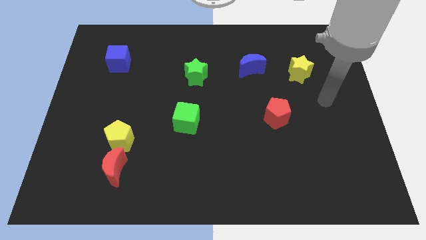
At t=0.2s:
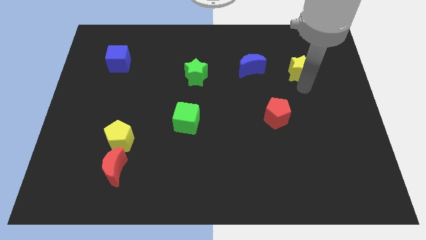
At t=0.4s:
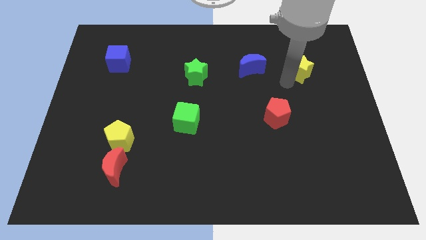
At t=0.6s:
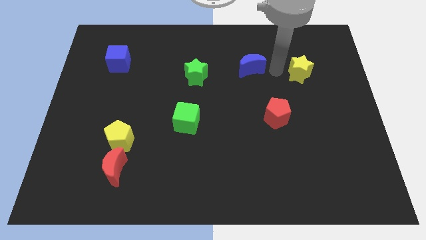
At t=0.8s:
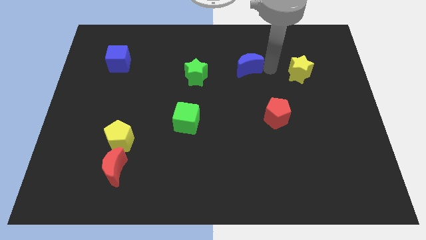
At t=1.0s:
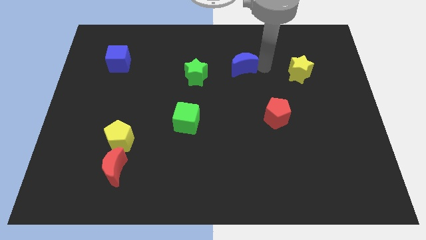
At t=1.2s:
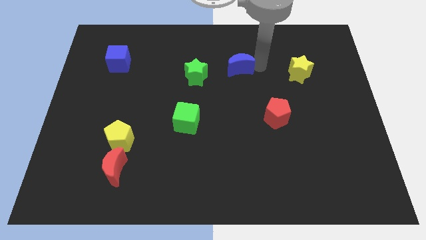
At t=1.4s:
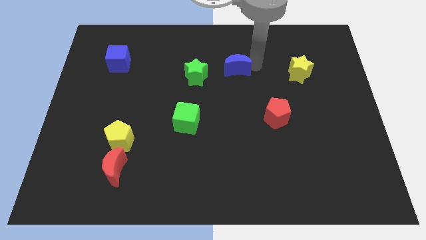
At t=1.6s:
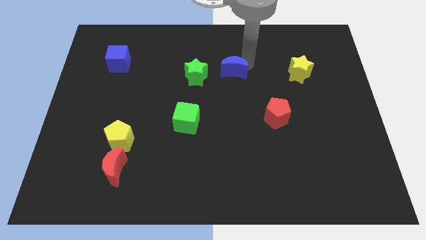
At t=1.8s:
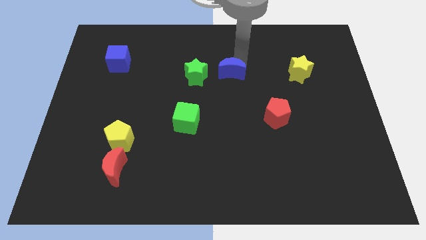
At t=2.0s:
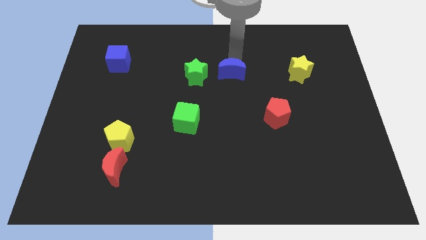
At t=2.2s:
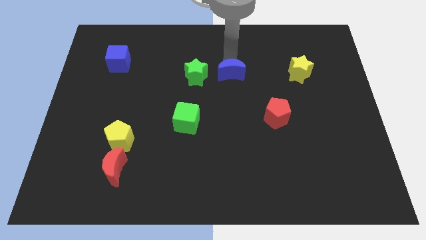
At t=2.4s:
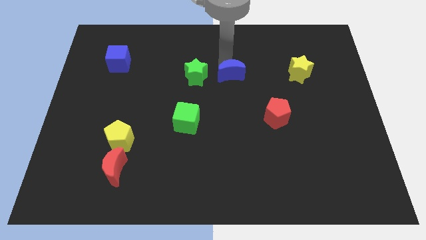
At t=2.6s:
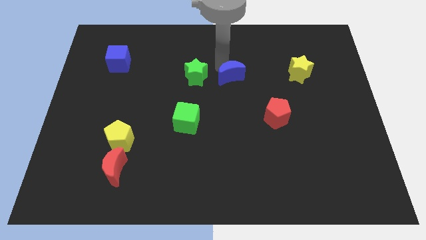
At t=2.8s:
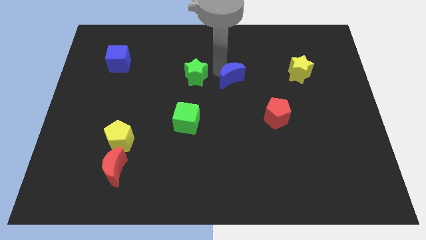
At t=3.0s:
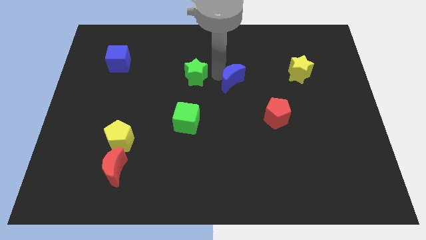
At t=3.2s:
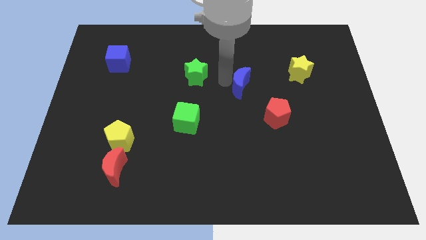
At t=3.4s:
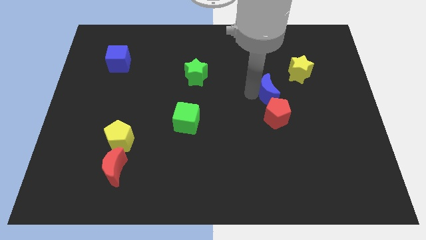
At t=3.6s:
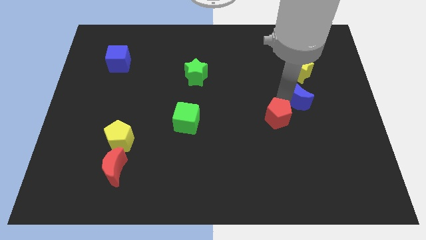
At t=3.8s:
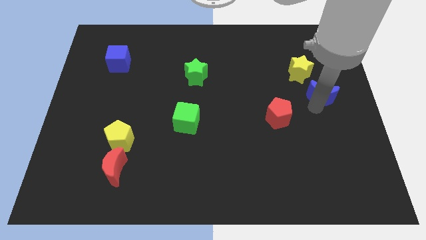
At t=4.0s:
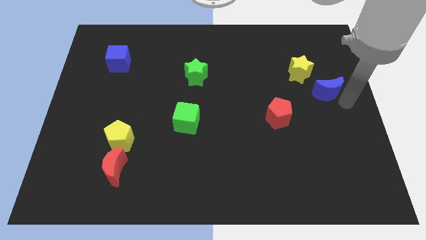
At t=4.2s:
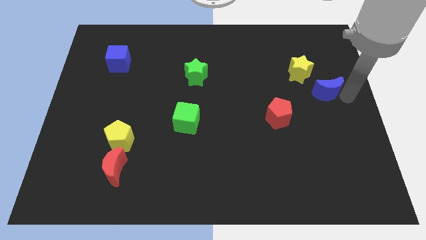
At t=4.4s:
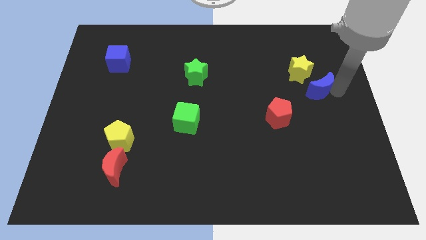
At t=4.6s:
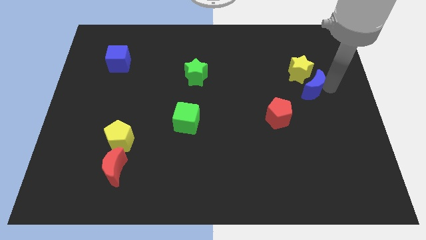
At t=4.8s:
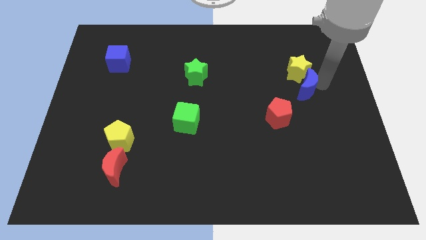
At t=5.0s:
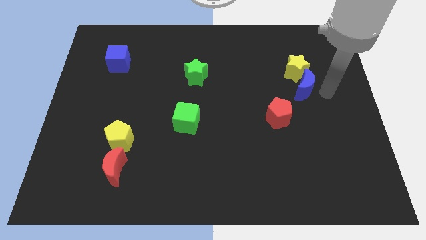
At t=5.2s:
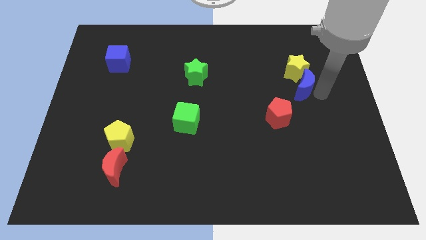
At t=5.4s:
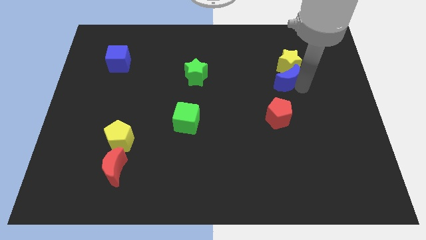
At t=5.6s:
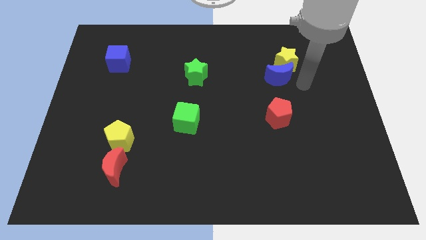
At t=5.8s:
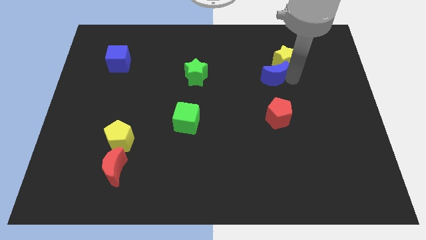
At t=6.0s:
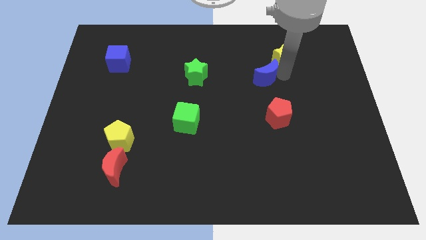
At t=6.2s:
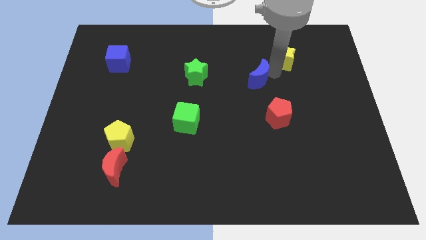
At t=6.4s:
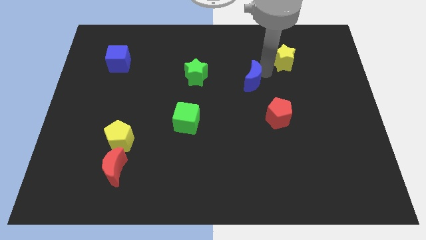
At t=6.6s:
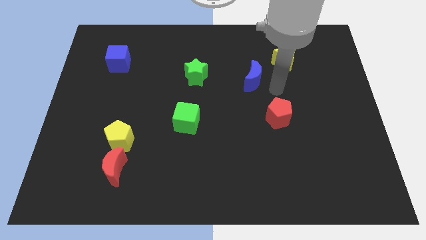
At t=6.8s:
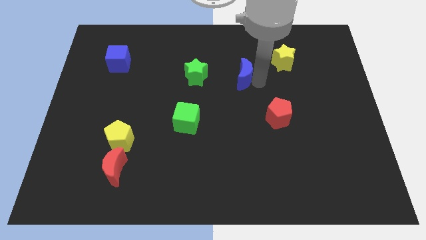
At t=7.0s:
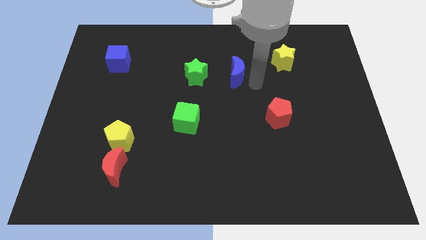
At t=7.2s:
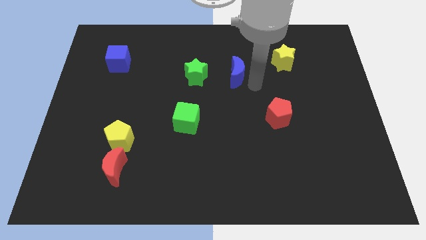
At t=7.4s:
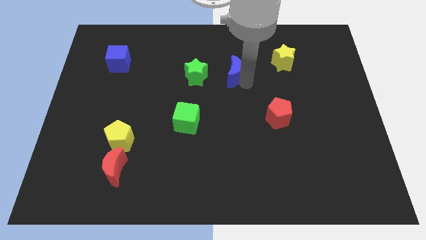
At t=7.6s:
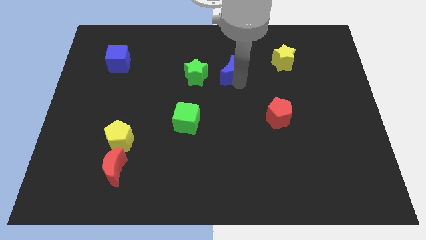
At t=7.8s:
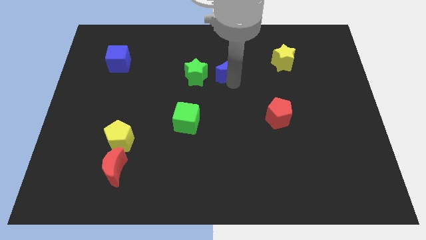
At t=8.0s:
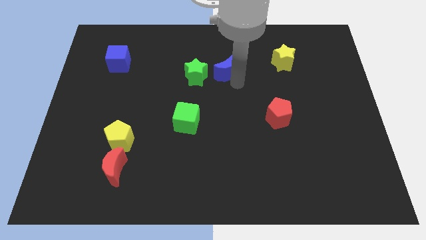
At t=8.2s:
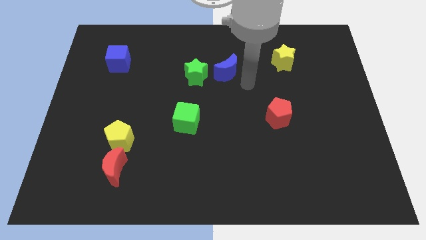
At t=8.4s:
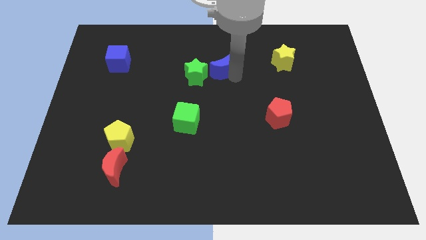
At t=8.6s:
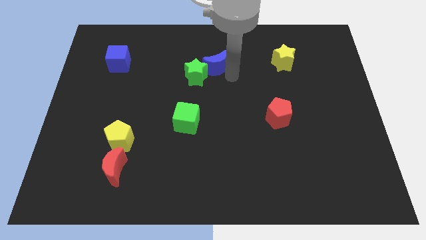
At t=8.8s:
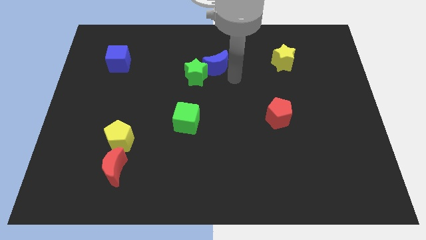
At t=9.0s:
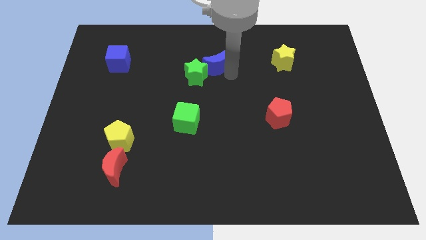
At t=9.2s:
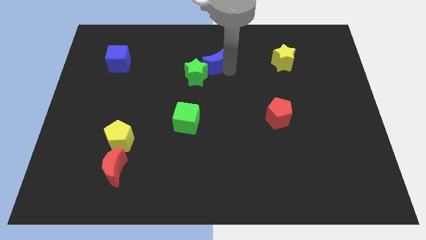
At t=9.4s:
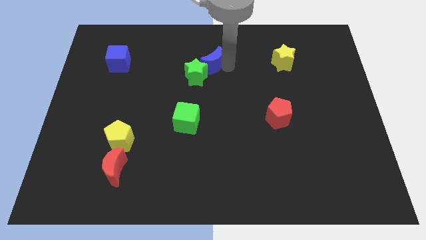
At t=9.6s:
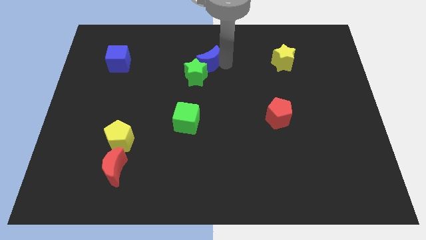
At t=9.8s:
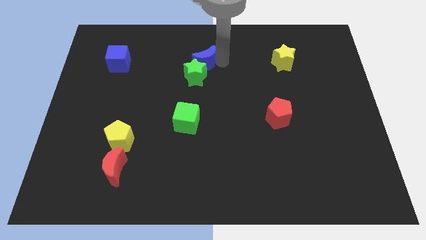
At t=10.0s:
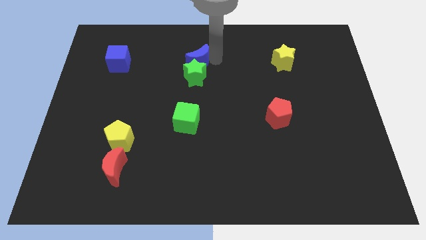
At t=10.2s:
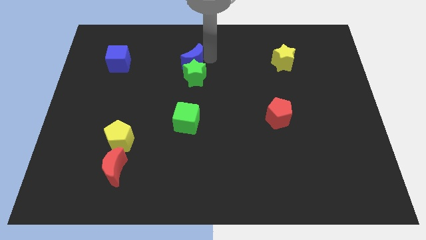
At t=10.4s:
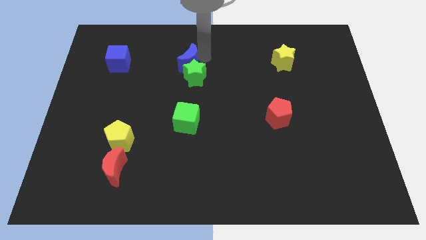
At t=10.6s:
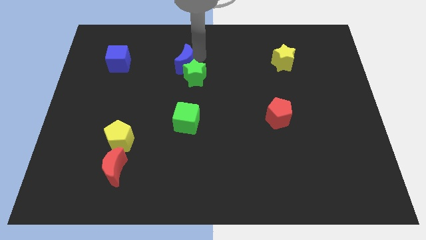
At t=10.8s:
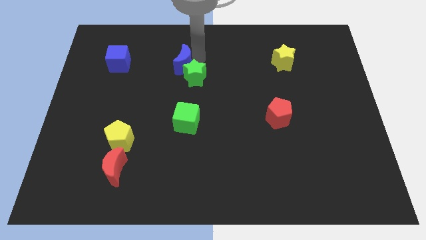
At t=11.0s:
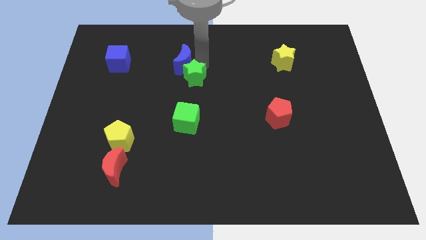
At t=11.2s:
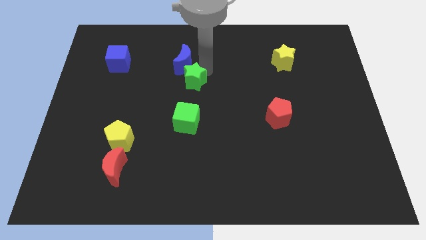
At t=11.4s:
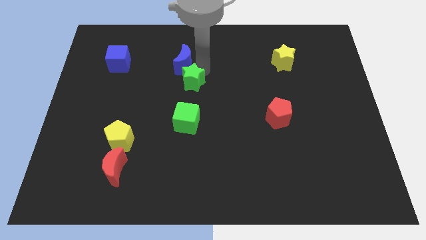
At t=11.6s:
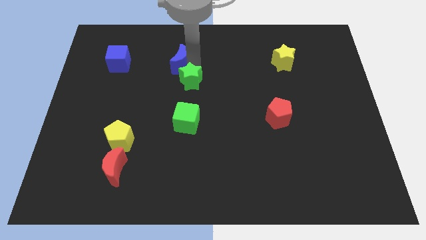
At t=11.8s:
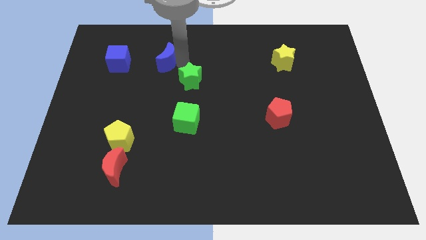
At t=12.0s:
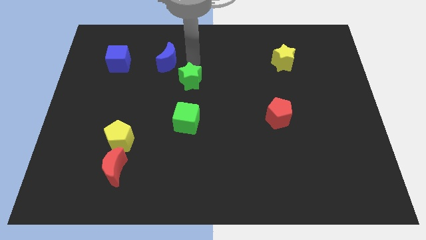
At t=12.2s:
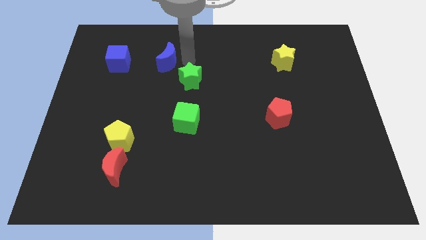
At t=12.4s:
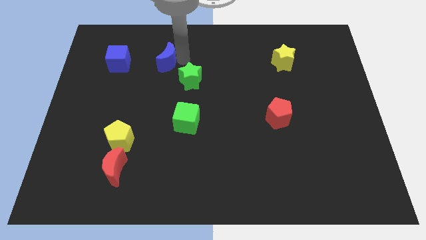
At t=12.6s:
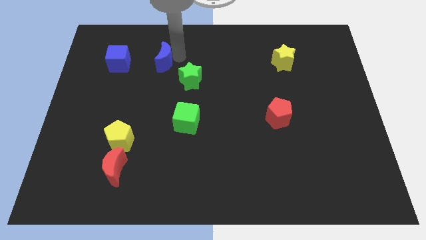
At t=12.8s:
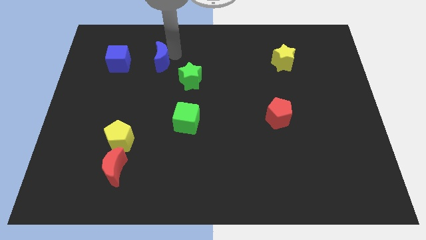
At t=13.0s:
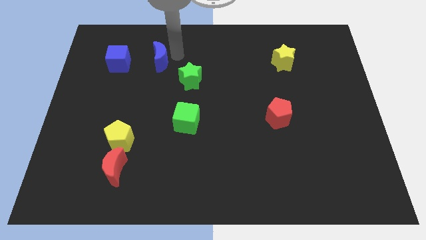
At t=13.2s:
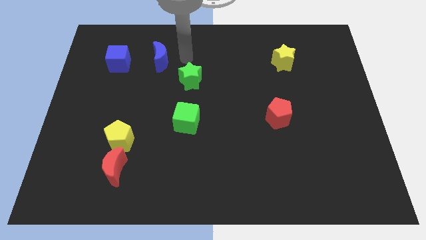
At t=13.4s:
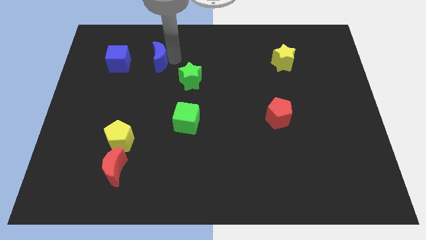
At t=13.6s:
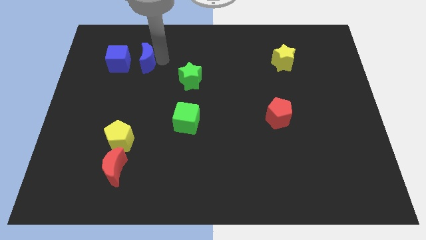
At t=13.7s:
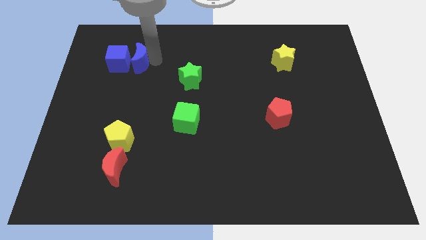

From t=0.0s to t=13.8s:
push the blue moon towards the blue cube

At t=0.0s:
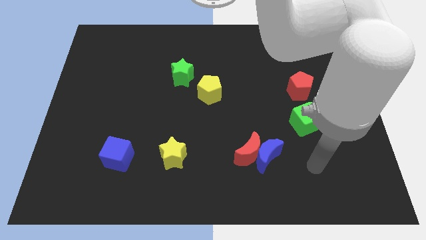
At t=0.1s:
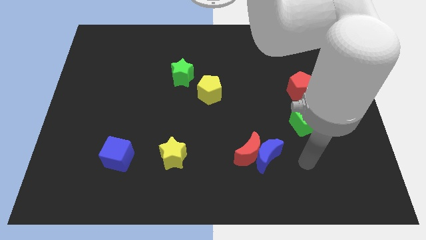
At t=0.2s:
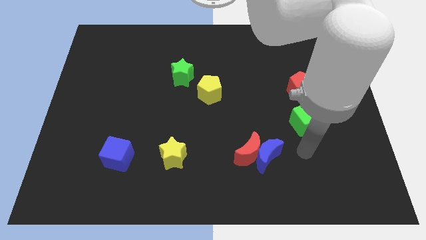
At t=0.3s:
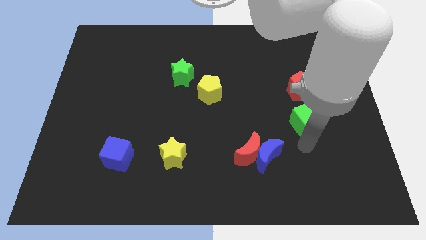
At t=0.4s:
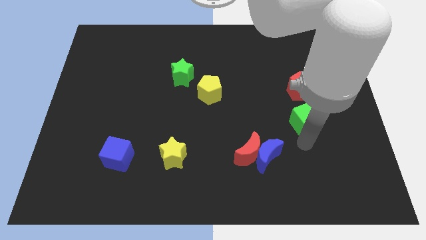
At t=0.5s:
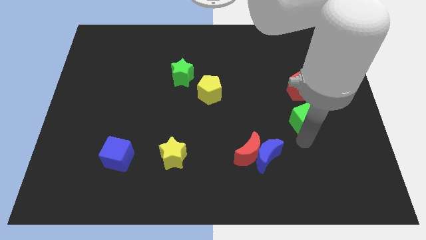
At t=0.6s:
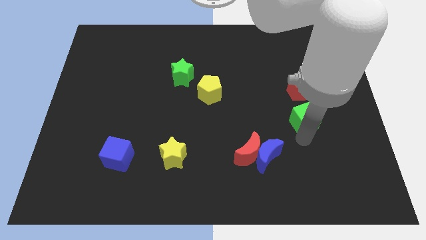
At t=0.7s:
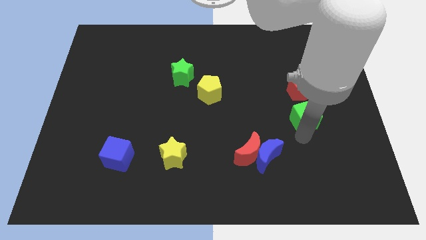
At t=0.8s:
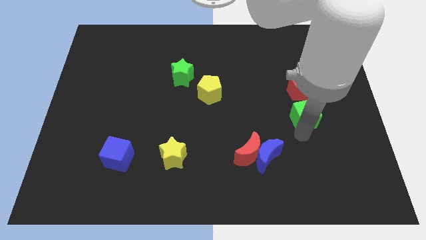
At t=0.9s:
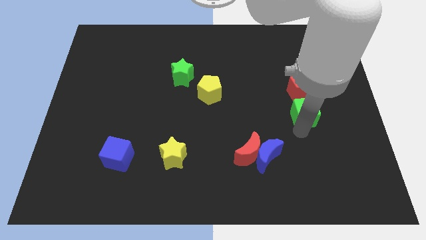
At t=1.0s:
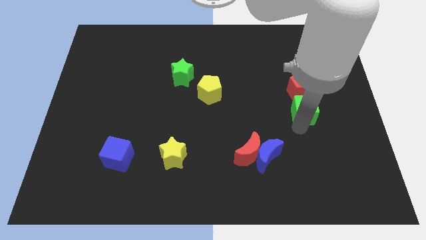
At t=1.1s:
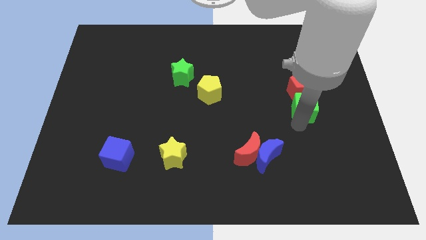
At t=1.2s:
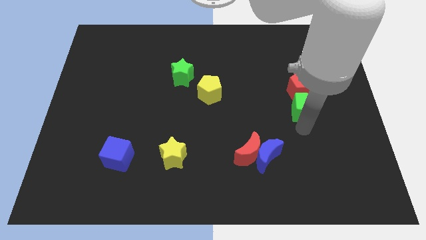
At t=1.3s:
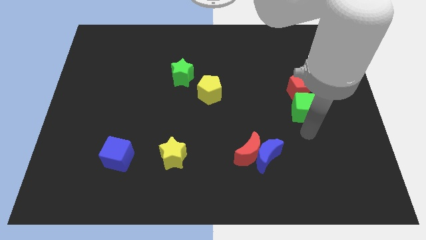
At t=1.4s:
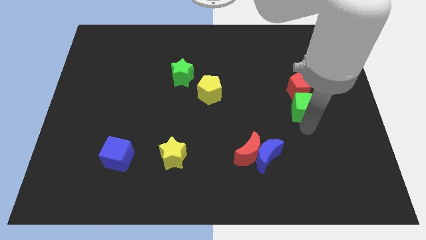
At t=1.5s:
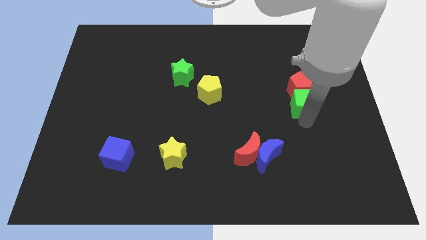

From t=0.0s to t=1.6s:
push the green cube towards the red pentagon
